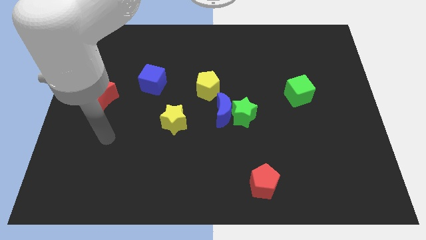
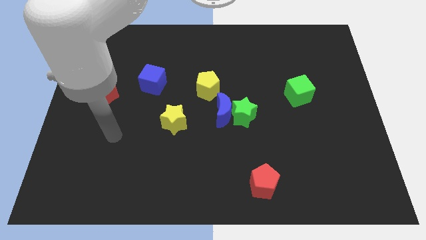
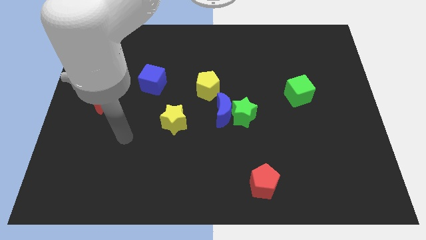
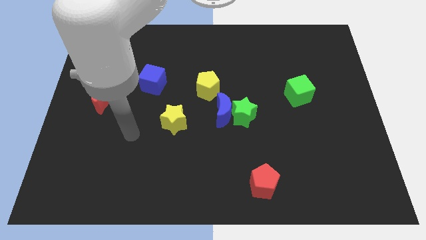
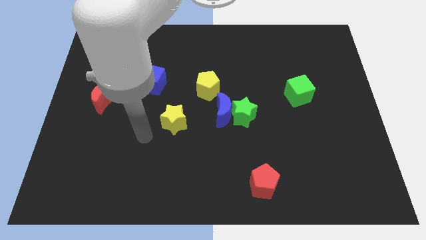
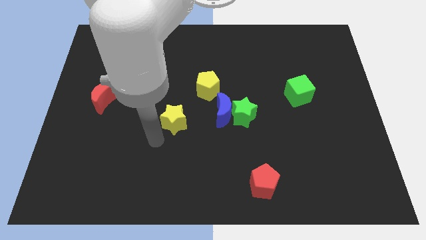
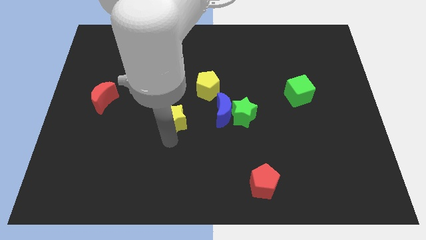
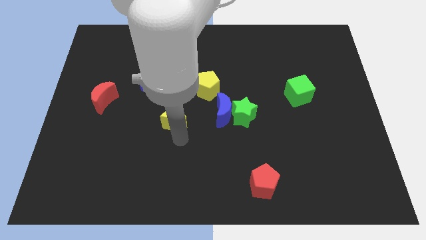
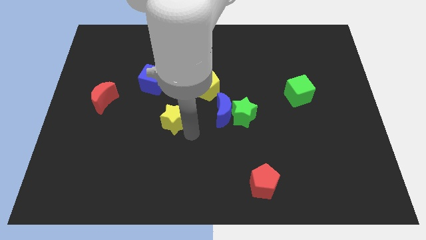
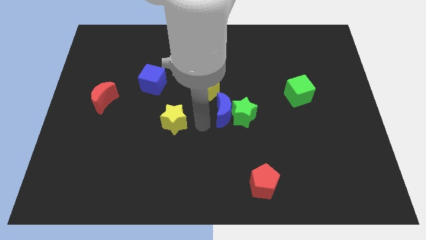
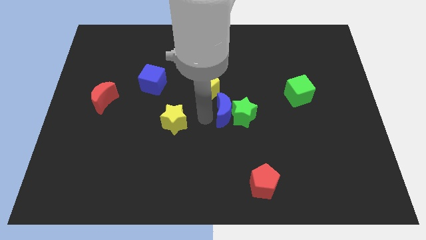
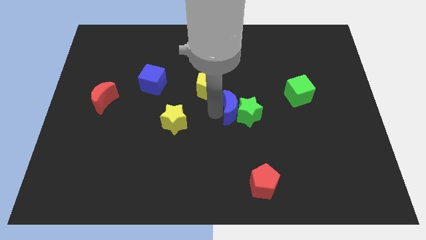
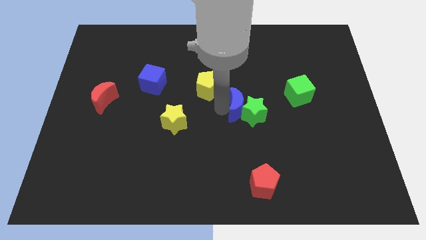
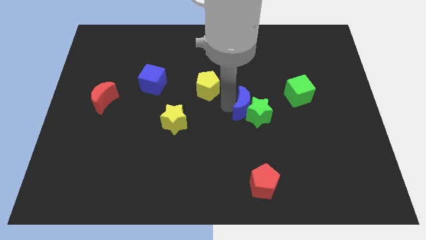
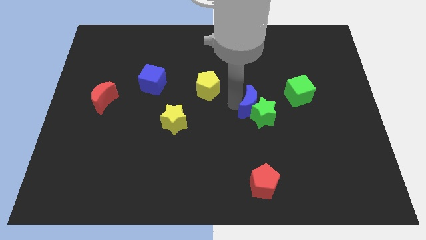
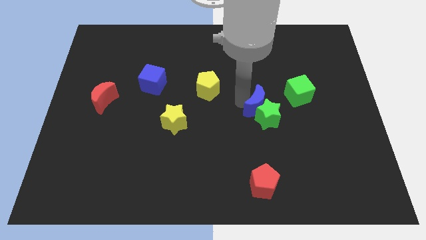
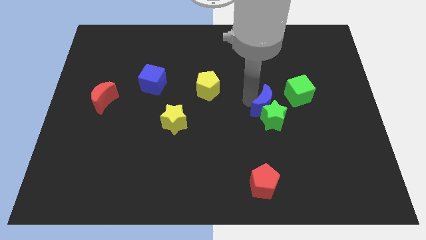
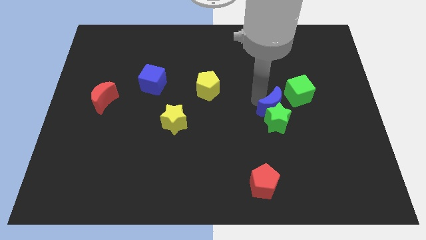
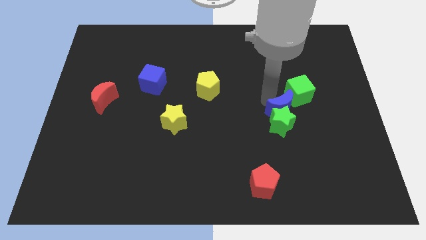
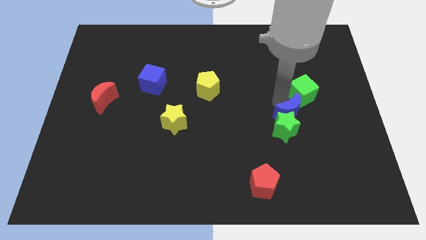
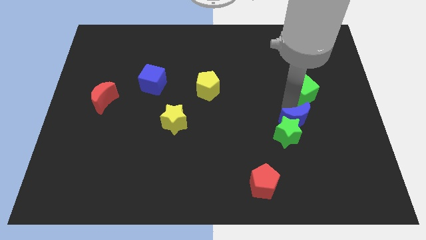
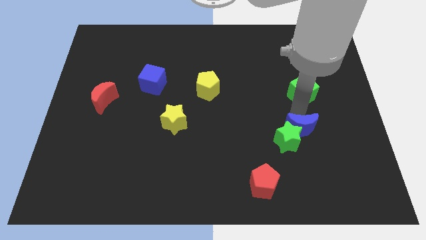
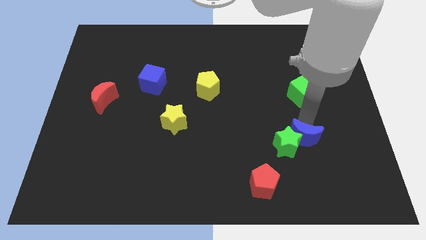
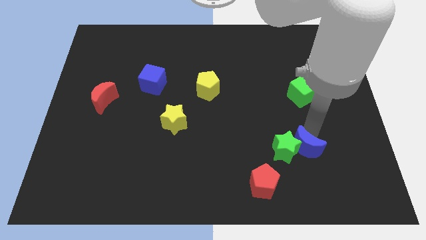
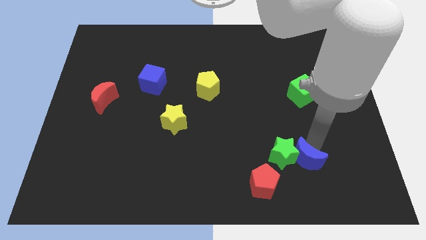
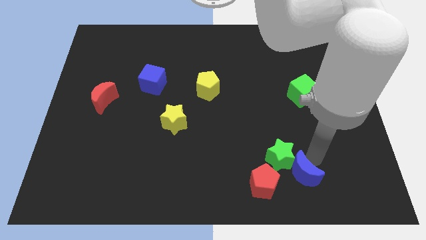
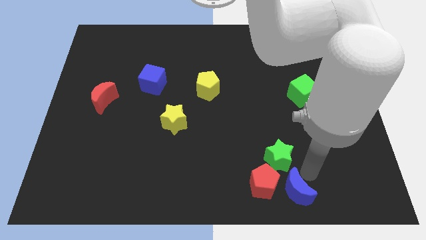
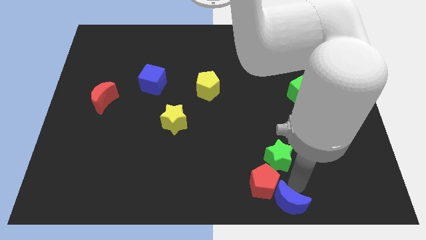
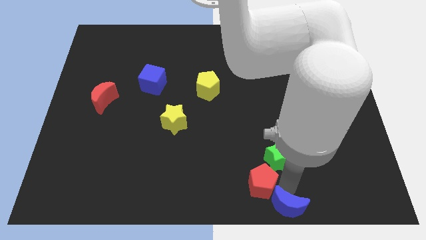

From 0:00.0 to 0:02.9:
move the green star away from the blue moon

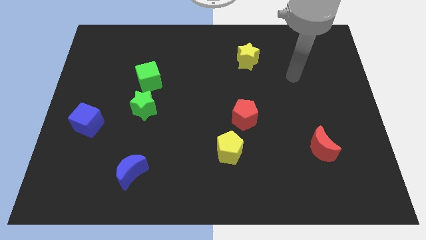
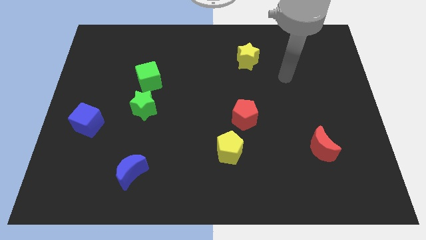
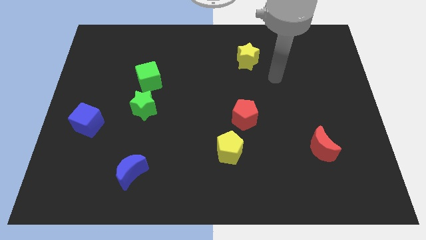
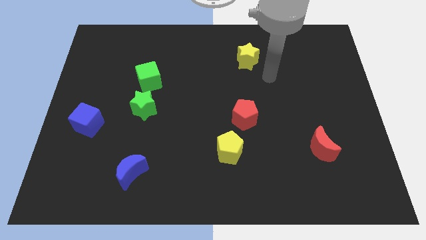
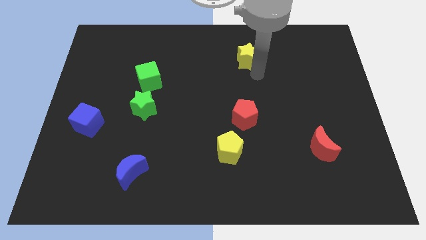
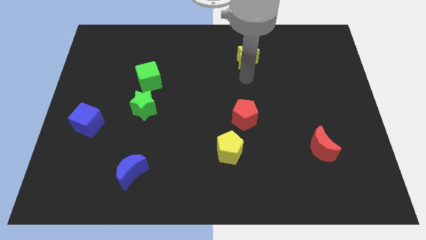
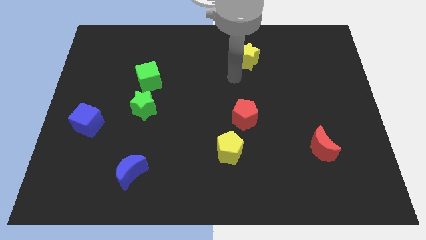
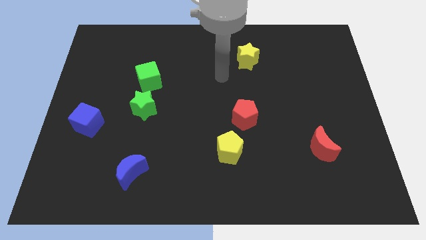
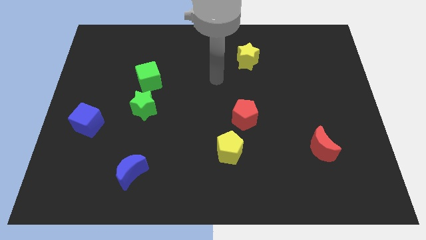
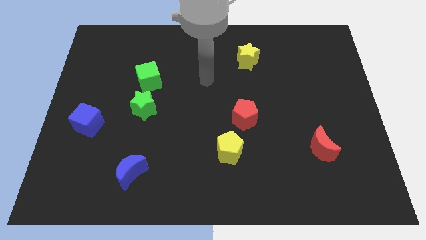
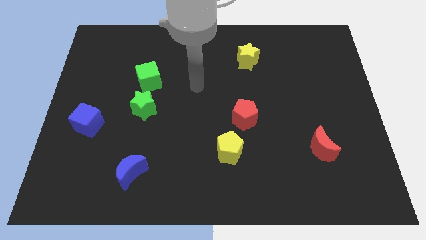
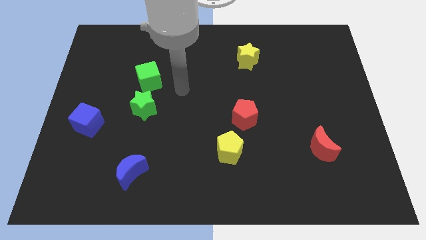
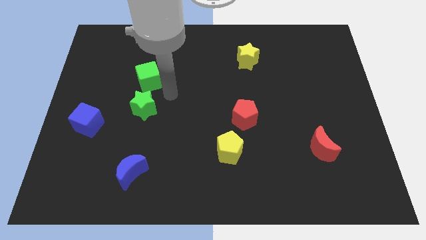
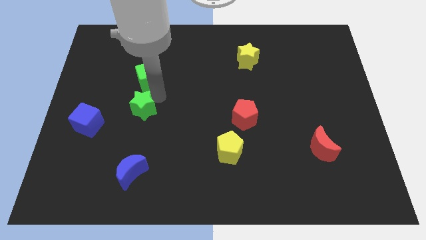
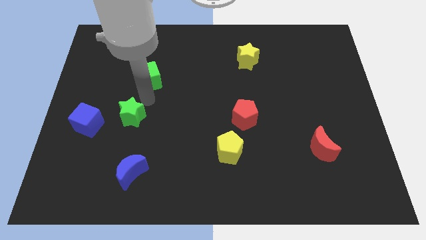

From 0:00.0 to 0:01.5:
move the green cube away from the green star

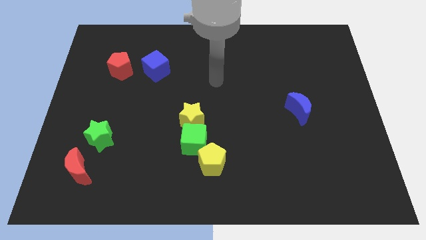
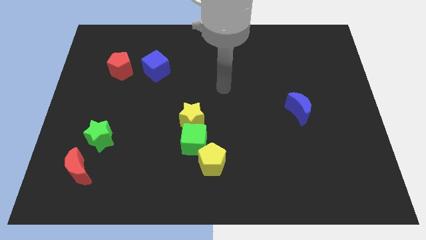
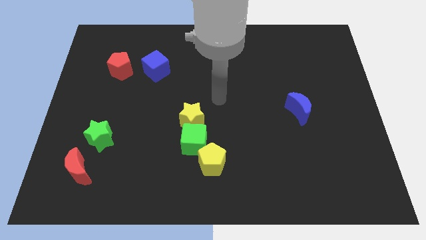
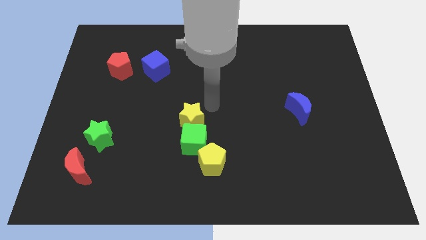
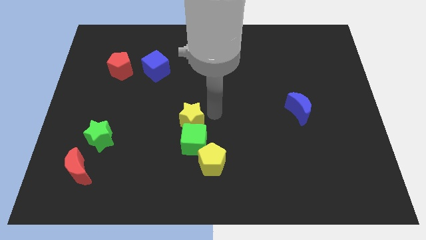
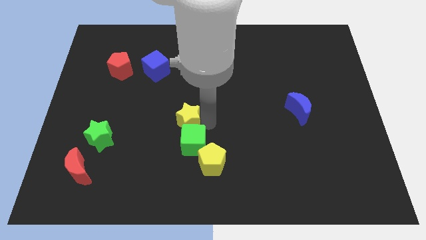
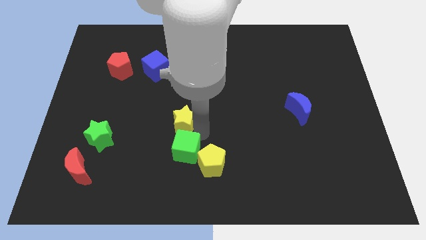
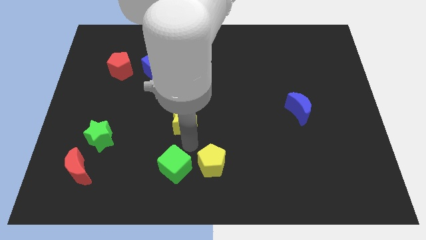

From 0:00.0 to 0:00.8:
move the yellow star away from the green cube

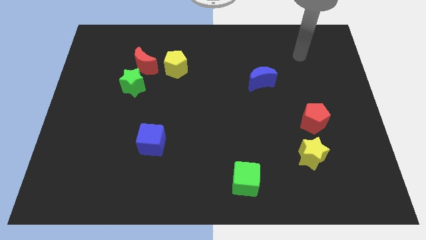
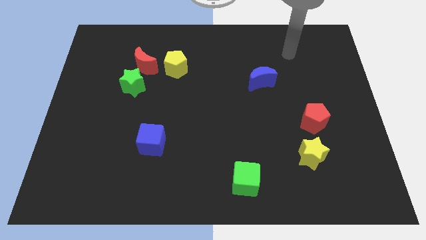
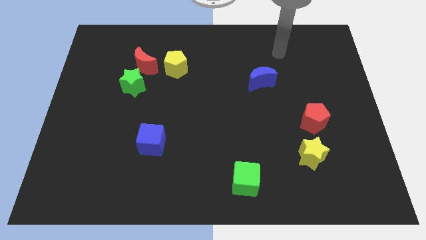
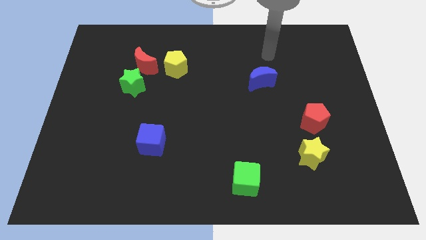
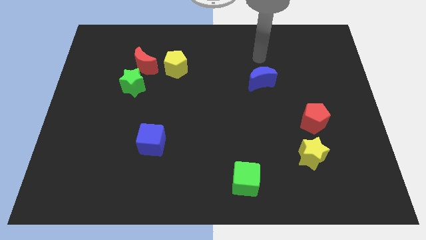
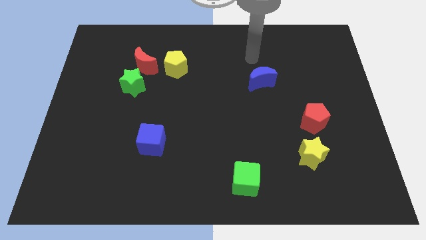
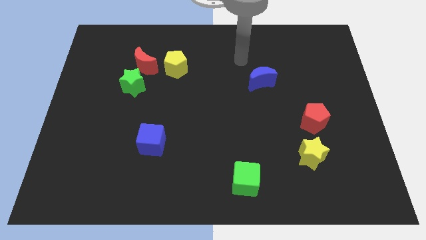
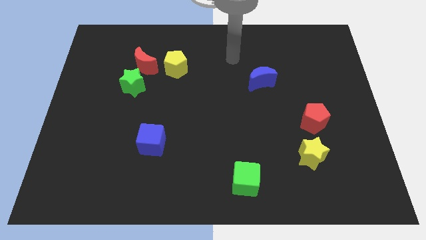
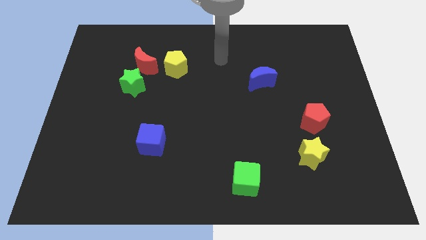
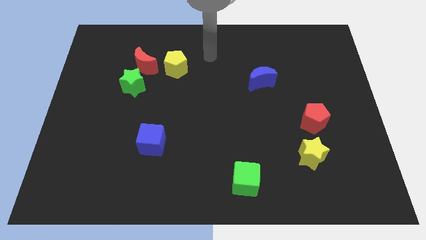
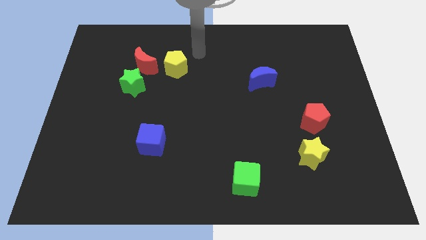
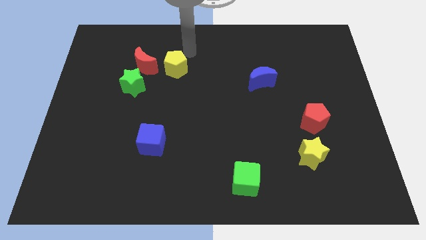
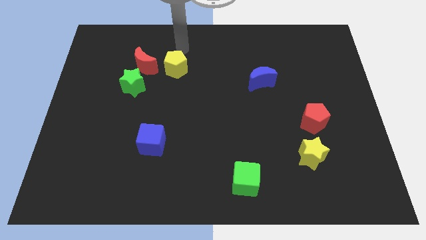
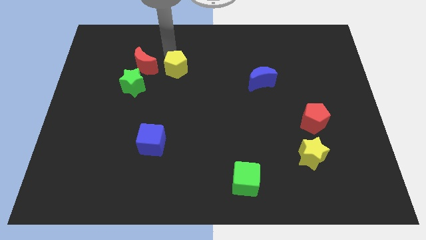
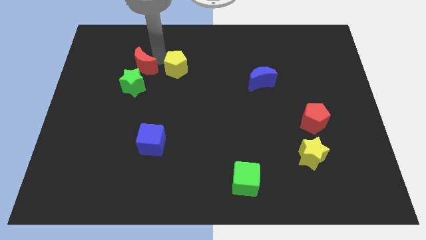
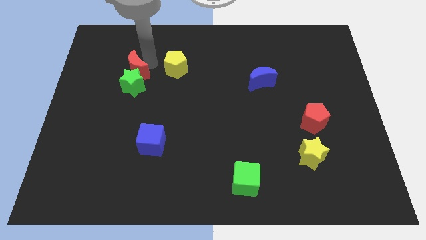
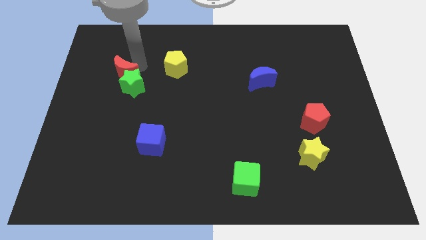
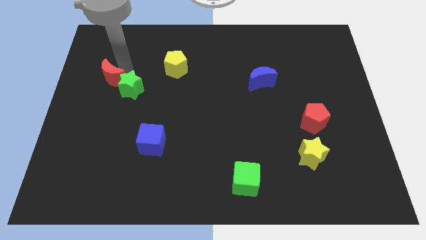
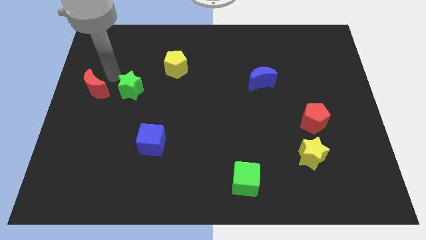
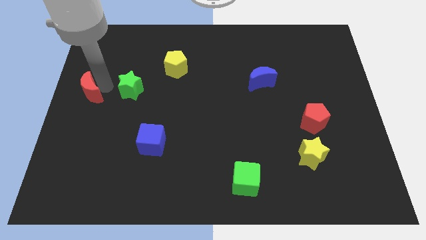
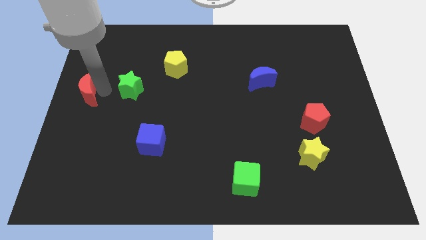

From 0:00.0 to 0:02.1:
separate the green star from the red moon

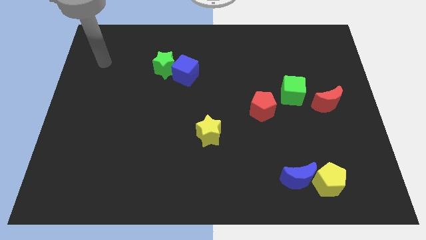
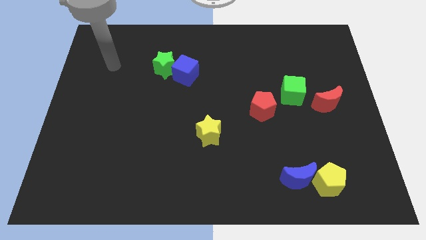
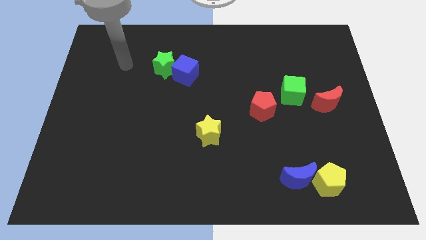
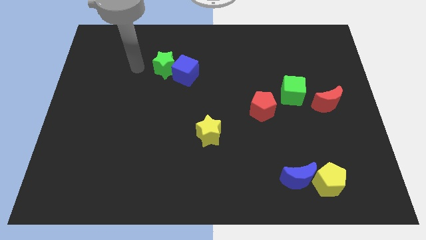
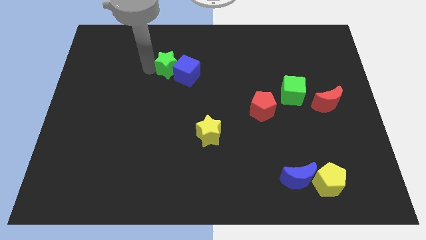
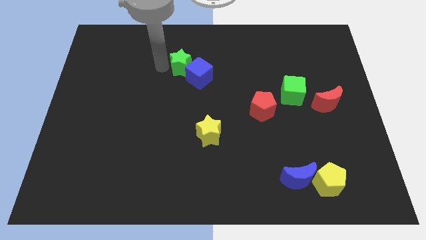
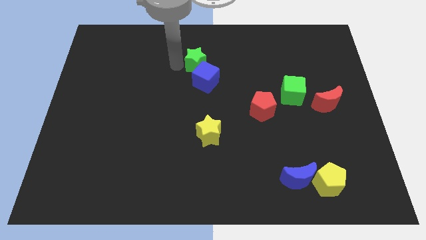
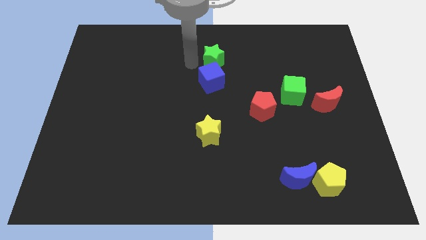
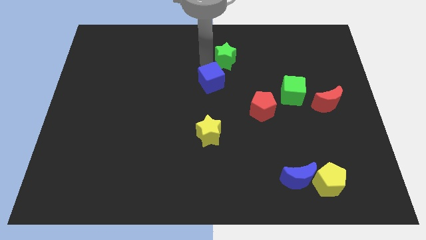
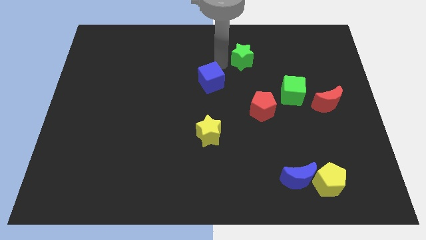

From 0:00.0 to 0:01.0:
move the blue cube away from the green star

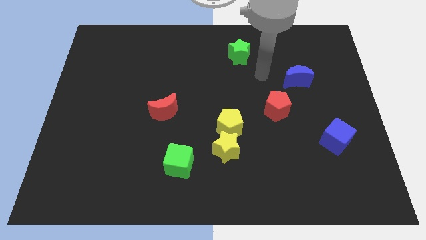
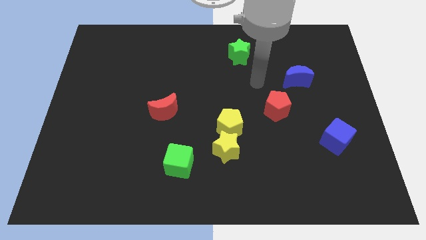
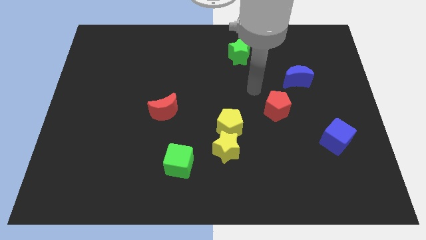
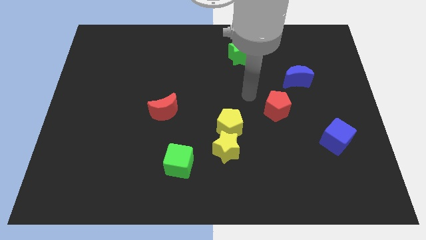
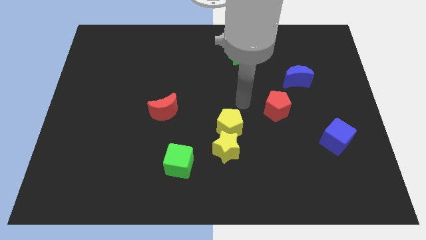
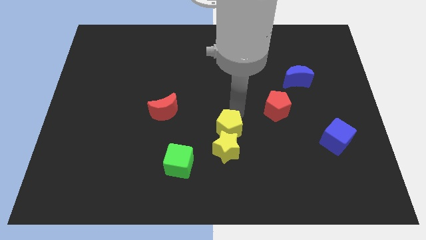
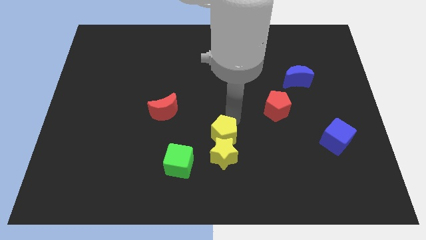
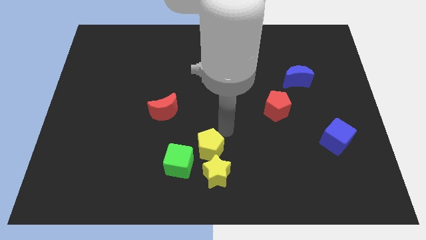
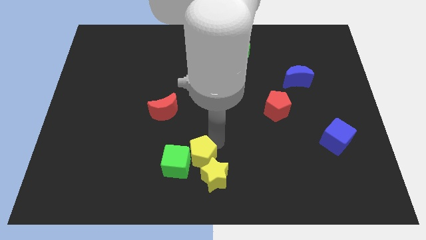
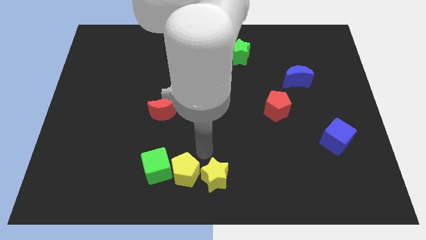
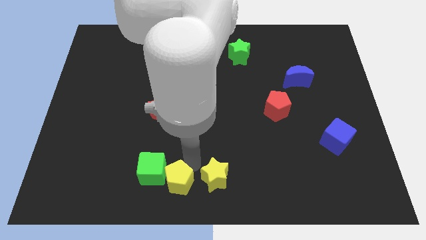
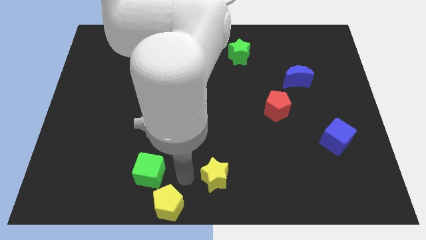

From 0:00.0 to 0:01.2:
move the yellow star away from the yellow pentagon
